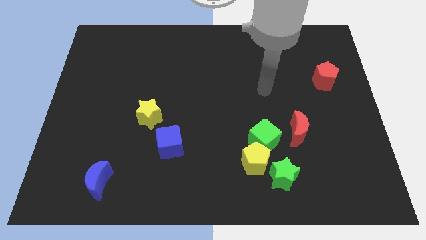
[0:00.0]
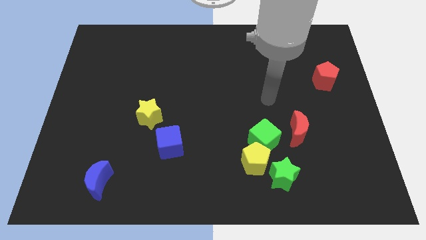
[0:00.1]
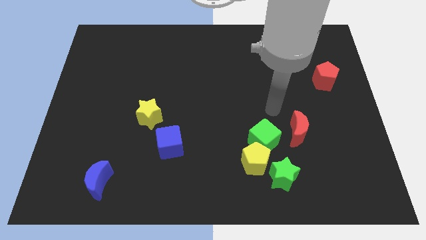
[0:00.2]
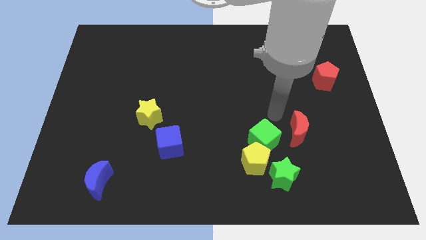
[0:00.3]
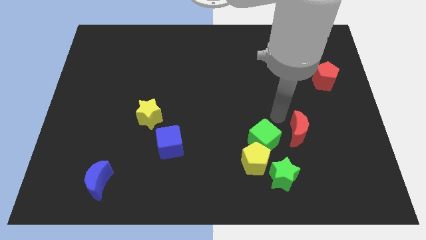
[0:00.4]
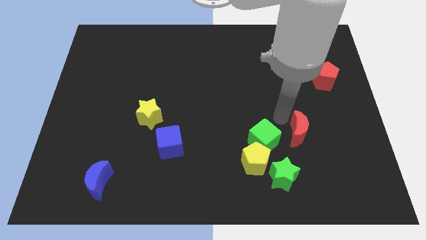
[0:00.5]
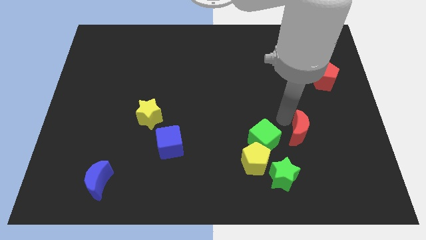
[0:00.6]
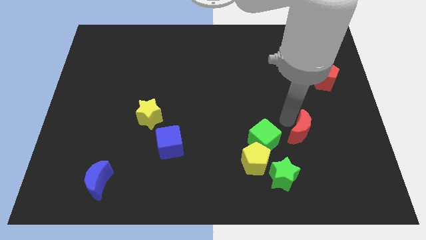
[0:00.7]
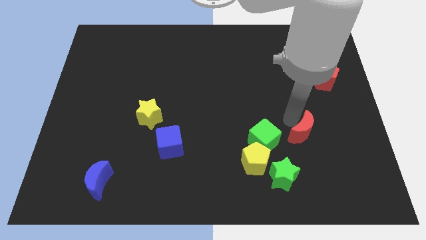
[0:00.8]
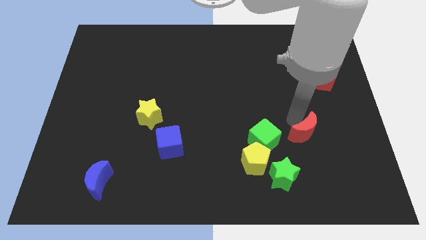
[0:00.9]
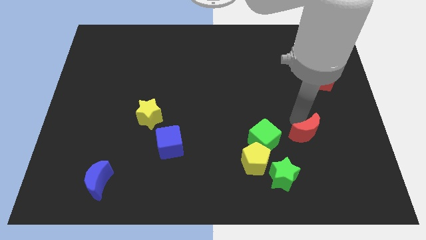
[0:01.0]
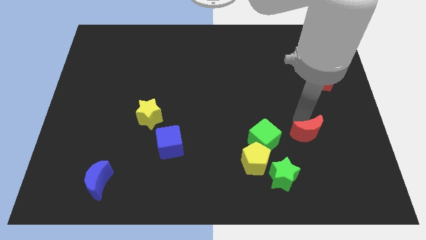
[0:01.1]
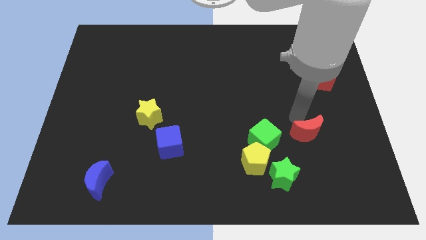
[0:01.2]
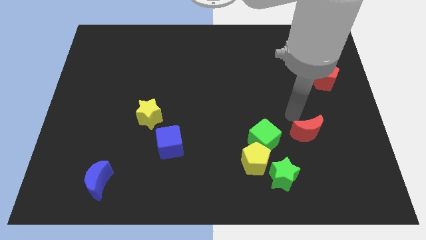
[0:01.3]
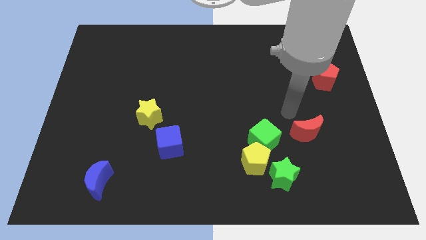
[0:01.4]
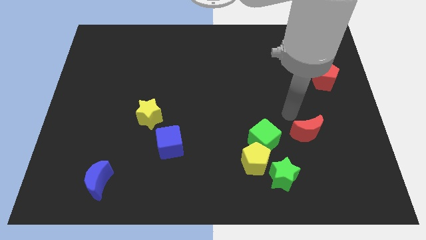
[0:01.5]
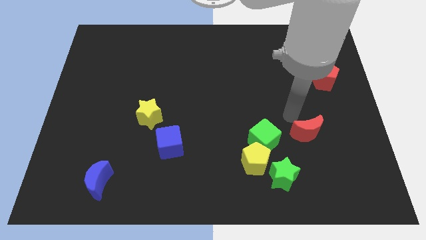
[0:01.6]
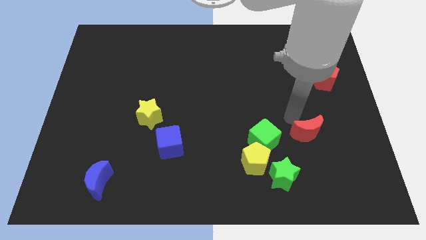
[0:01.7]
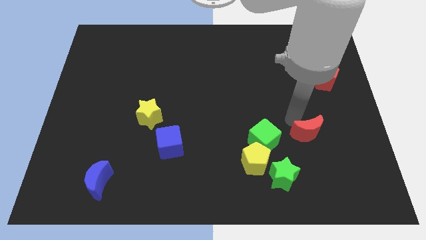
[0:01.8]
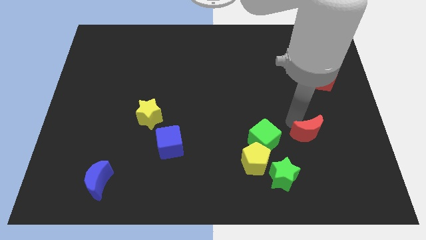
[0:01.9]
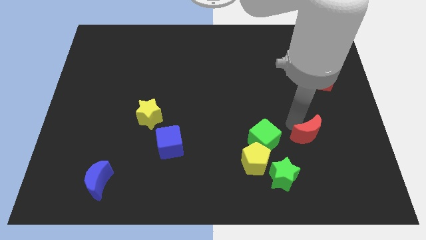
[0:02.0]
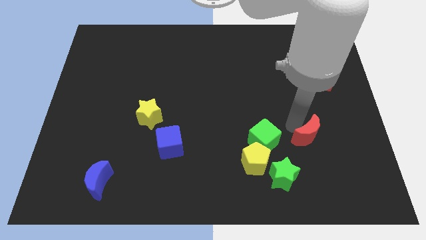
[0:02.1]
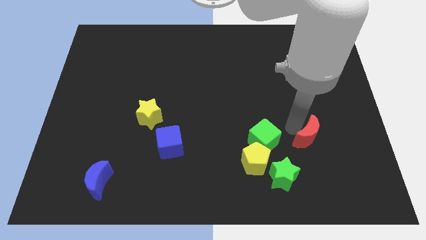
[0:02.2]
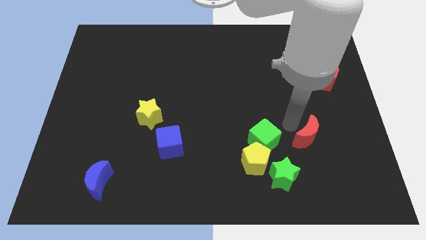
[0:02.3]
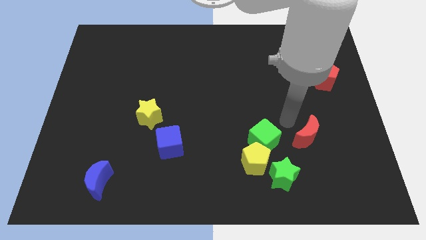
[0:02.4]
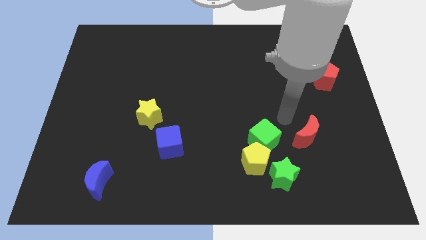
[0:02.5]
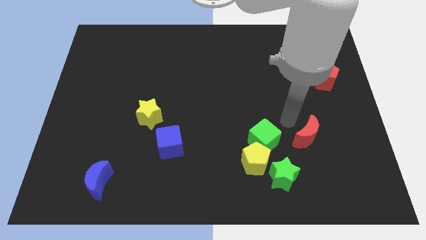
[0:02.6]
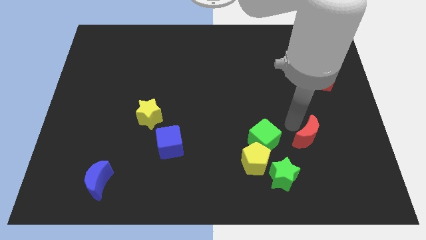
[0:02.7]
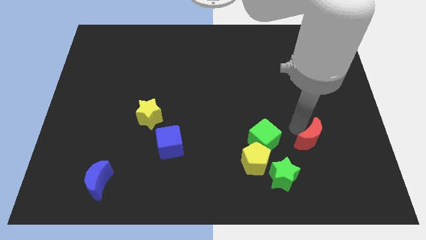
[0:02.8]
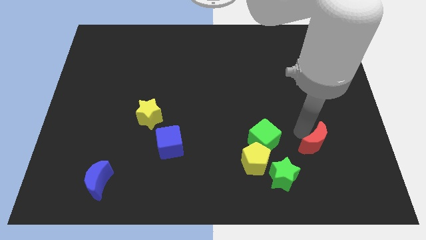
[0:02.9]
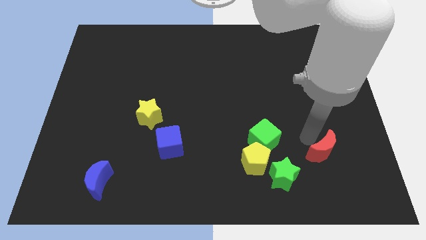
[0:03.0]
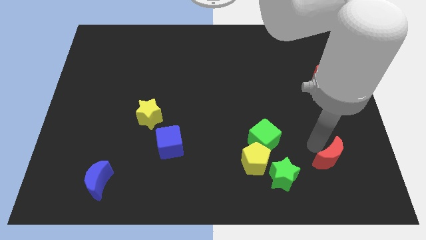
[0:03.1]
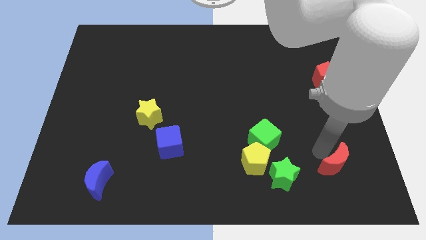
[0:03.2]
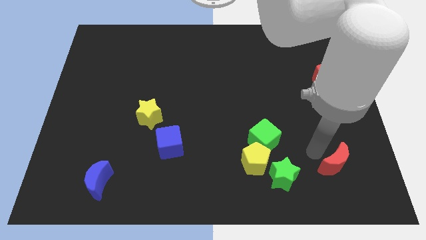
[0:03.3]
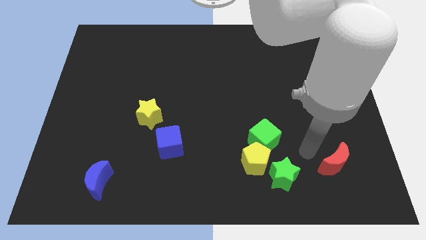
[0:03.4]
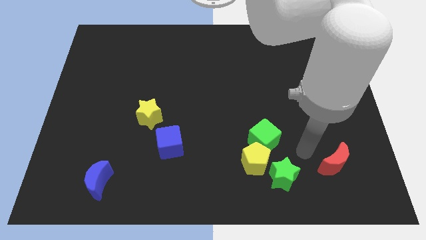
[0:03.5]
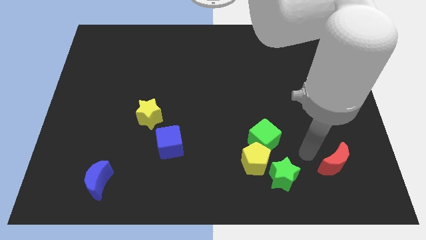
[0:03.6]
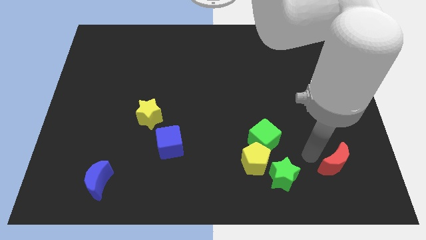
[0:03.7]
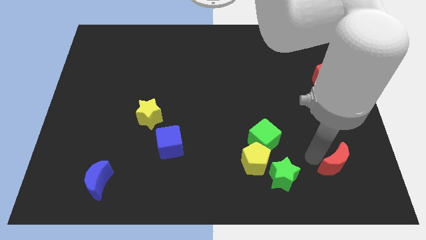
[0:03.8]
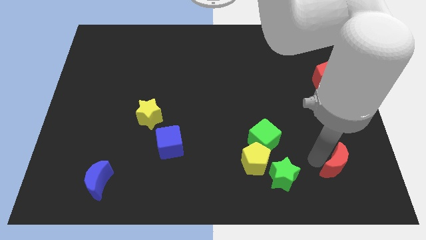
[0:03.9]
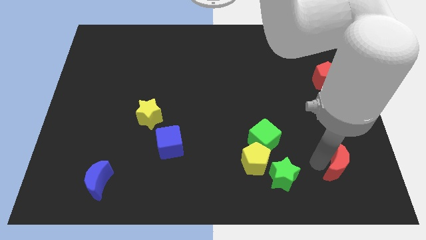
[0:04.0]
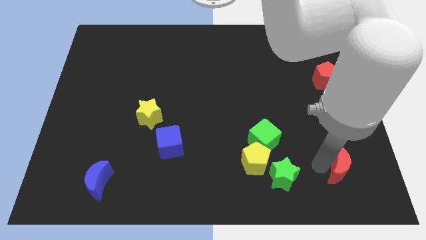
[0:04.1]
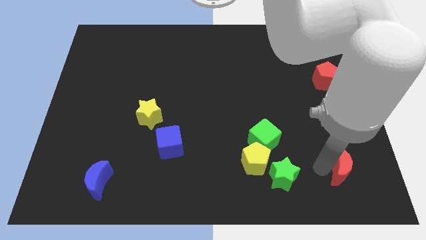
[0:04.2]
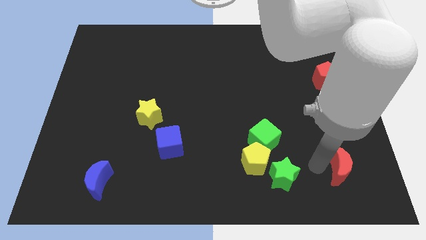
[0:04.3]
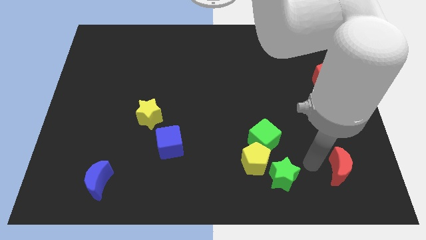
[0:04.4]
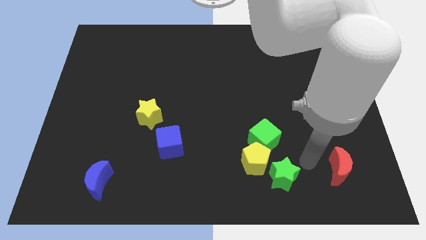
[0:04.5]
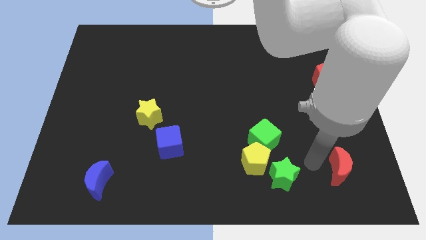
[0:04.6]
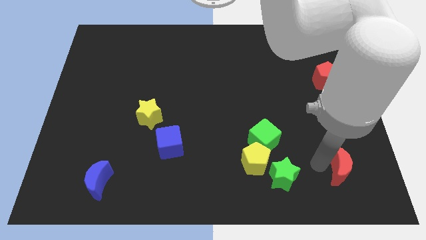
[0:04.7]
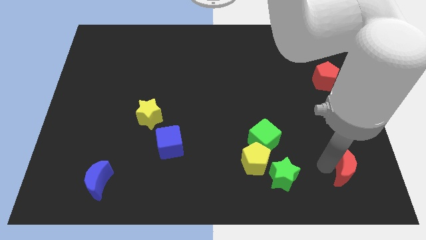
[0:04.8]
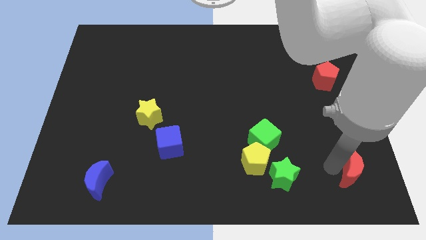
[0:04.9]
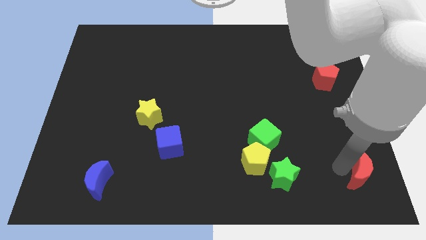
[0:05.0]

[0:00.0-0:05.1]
slide the red moon to the lower right corner

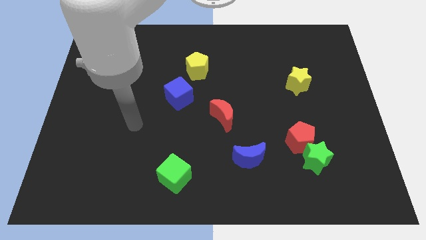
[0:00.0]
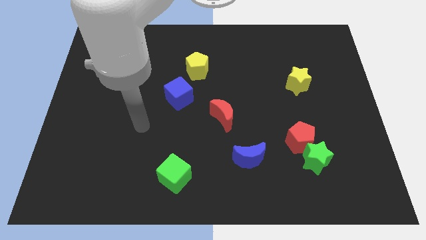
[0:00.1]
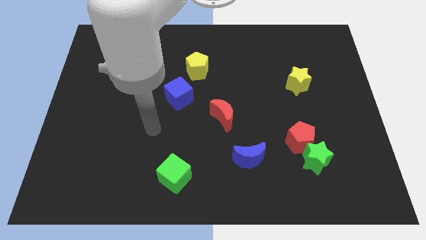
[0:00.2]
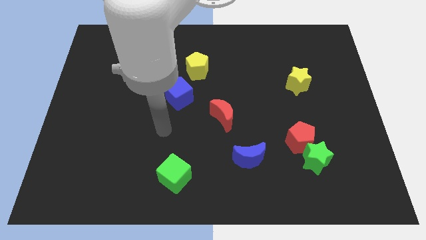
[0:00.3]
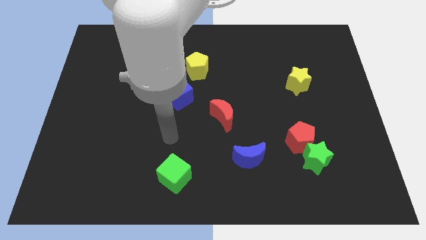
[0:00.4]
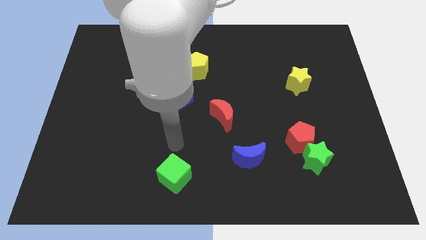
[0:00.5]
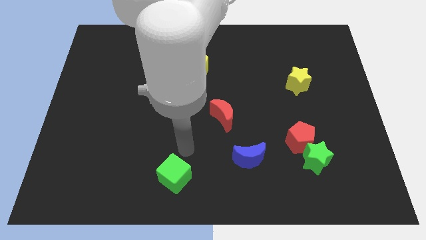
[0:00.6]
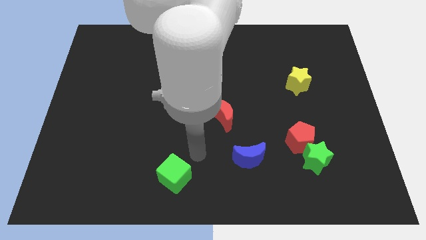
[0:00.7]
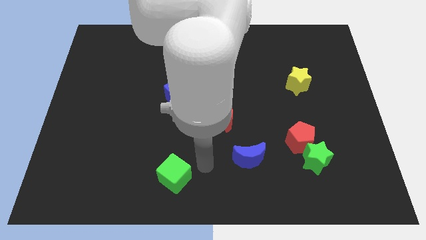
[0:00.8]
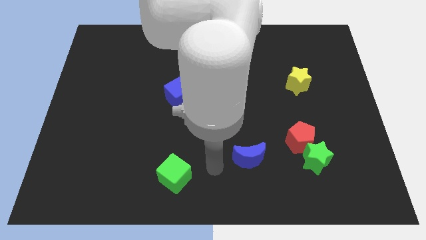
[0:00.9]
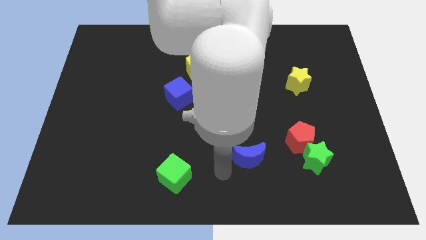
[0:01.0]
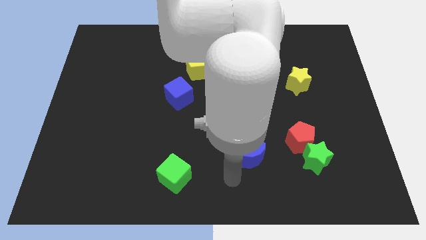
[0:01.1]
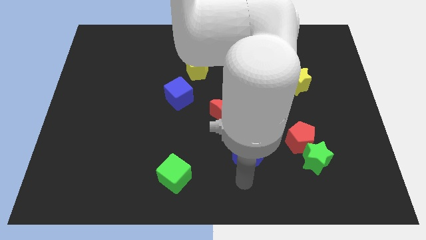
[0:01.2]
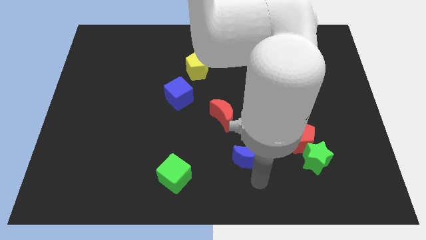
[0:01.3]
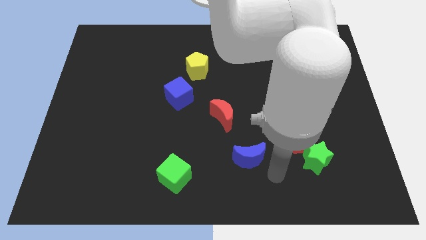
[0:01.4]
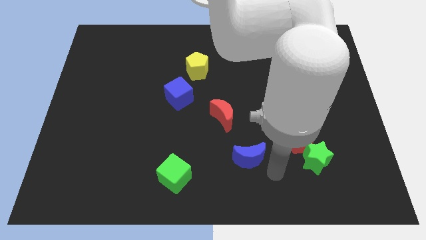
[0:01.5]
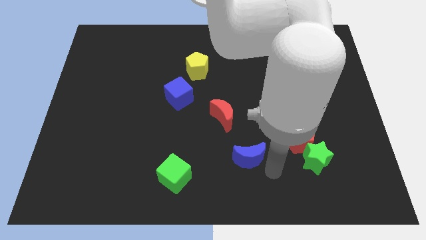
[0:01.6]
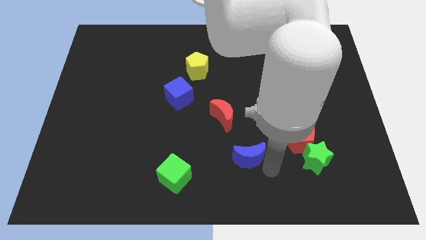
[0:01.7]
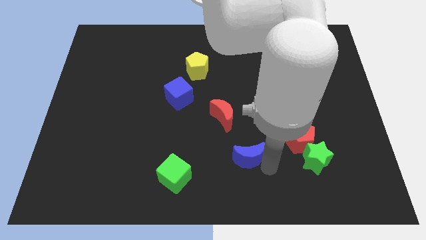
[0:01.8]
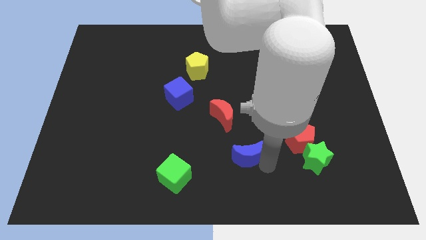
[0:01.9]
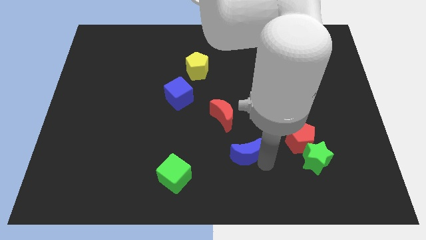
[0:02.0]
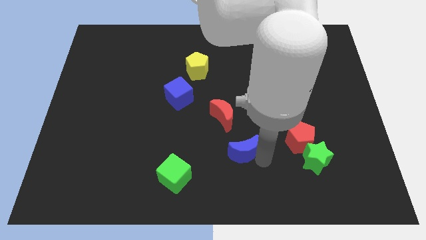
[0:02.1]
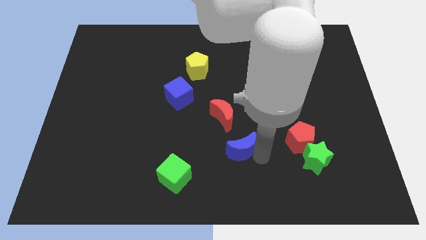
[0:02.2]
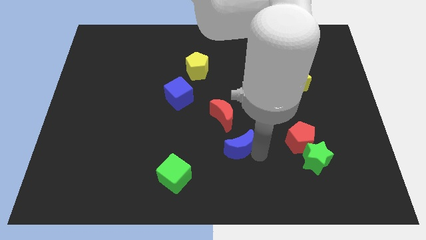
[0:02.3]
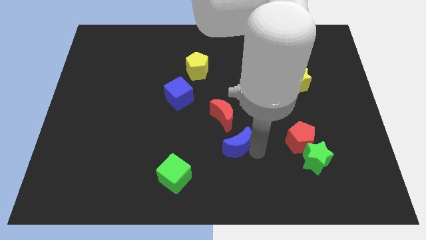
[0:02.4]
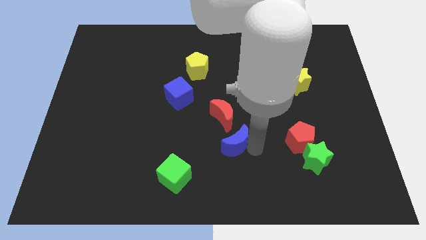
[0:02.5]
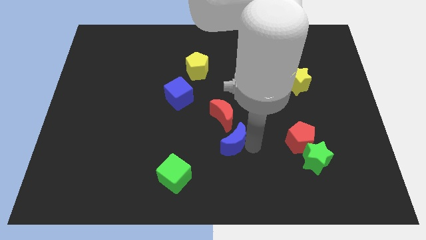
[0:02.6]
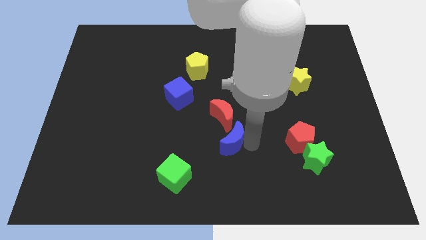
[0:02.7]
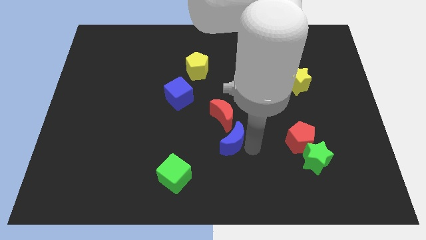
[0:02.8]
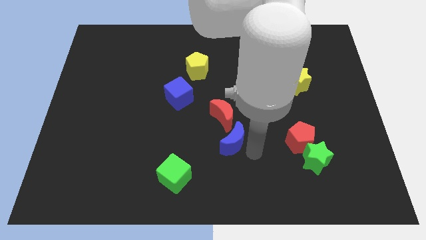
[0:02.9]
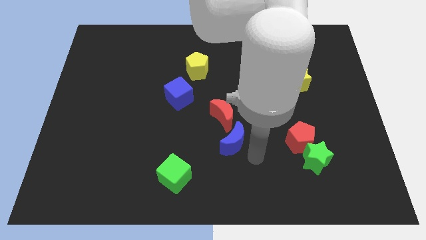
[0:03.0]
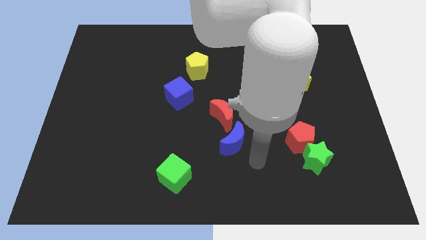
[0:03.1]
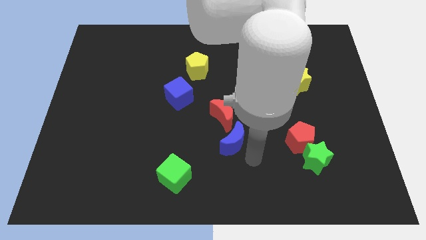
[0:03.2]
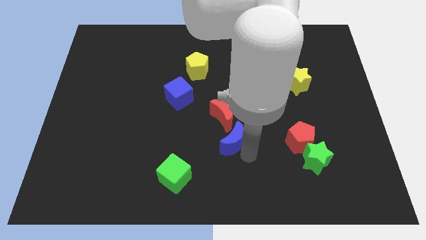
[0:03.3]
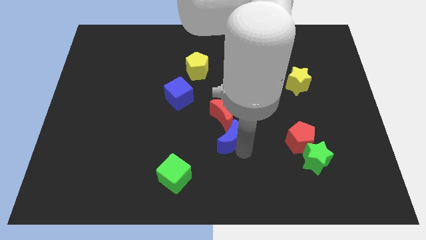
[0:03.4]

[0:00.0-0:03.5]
slide the blue moon to the middle
